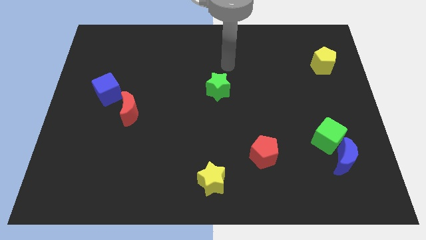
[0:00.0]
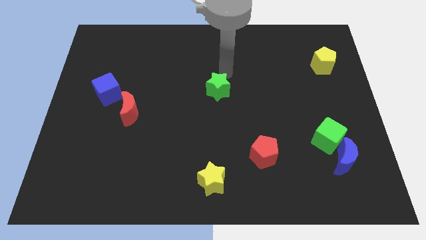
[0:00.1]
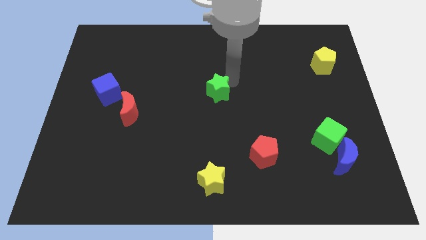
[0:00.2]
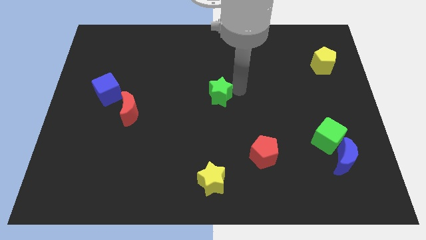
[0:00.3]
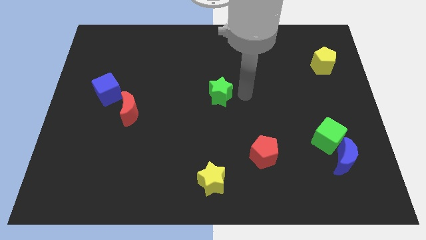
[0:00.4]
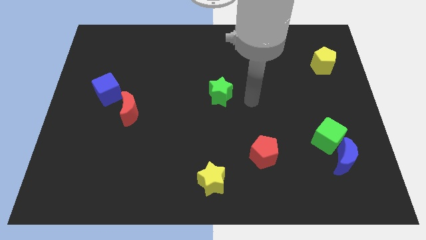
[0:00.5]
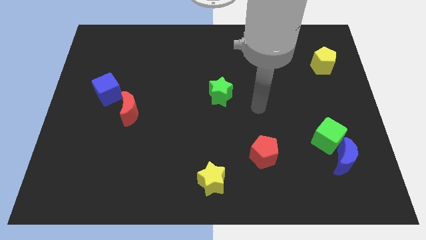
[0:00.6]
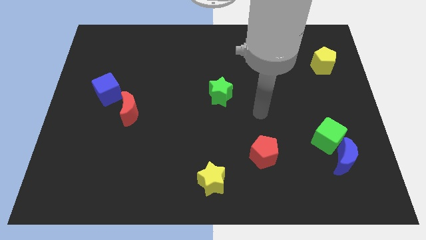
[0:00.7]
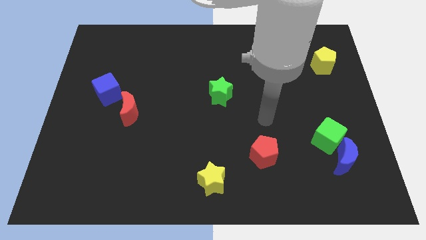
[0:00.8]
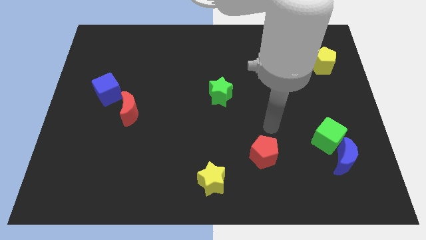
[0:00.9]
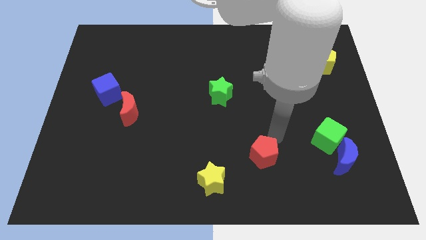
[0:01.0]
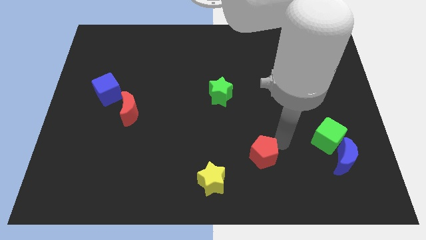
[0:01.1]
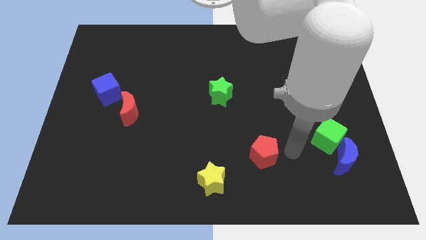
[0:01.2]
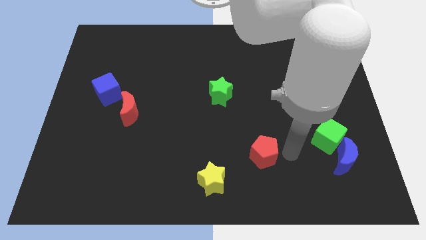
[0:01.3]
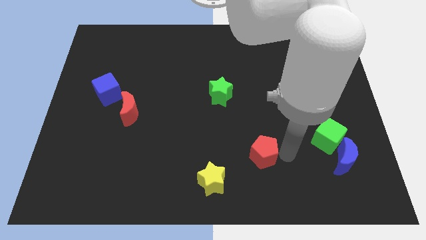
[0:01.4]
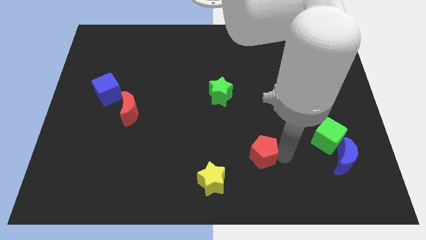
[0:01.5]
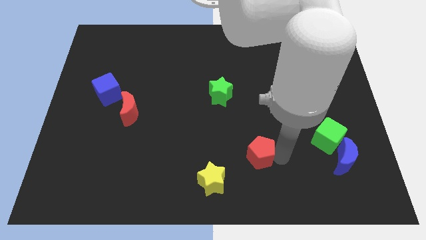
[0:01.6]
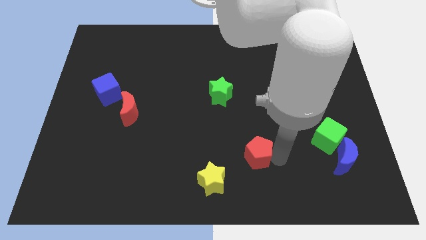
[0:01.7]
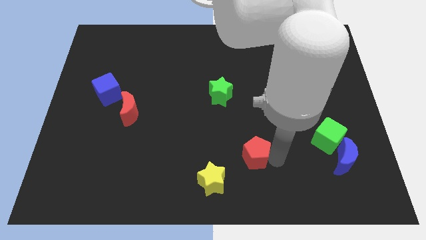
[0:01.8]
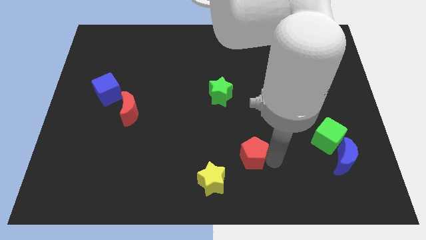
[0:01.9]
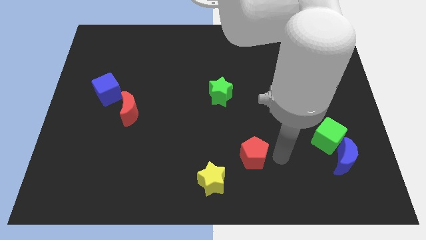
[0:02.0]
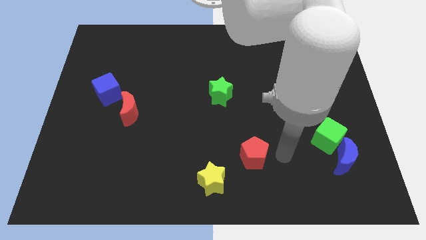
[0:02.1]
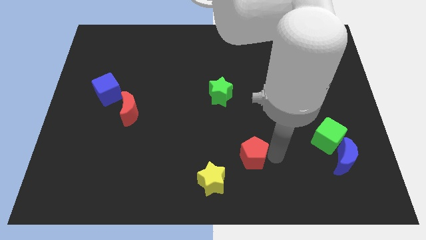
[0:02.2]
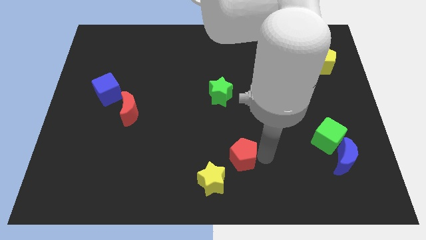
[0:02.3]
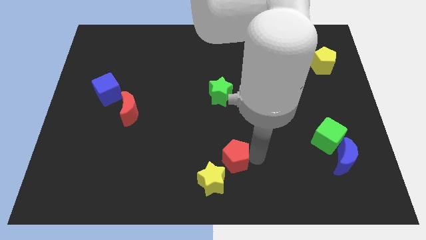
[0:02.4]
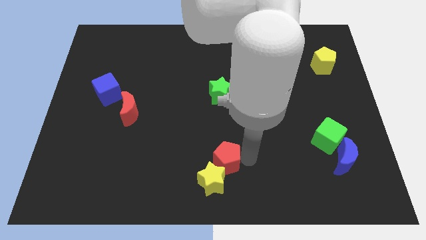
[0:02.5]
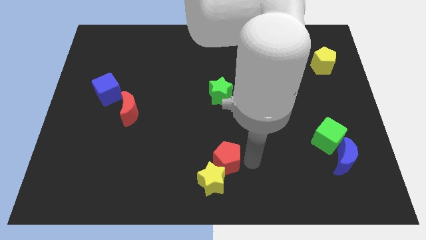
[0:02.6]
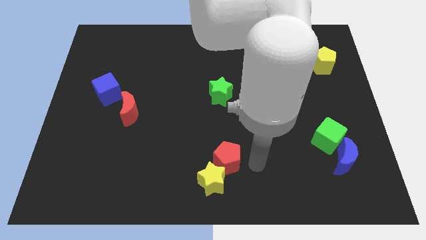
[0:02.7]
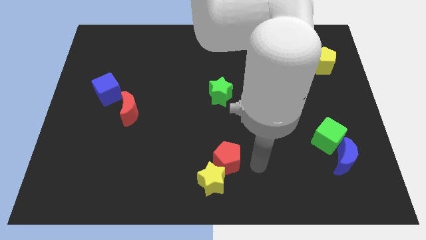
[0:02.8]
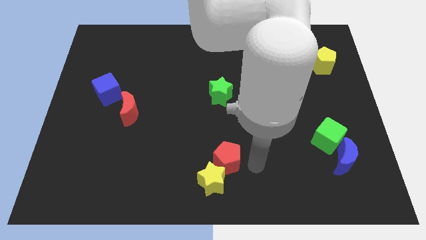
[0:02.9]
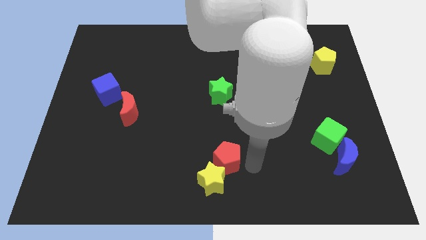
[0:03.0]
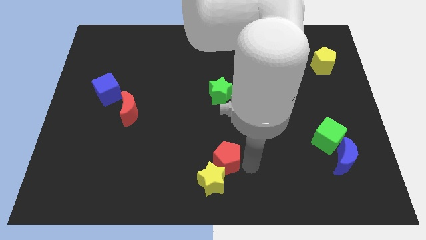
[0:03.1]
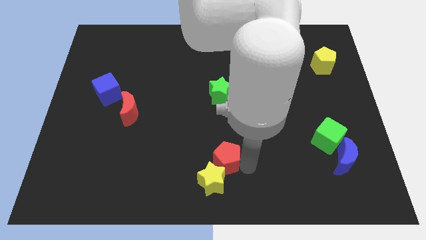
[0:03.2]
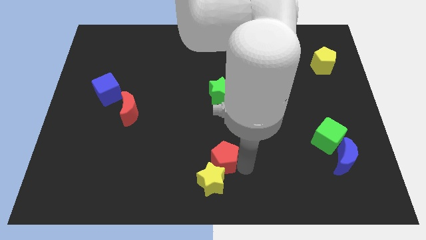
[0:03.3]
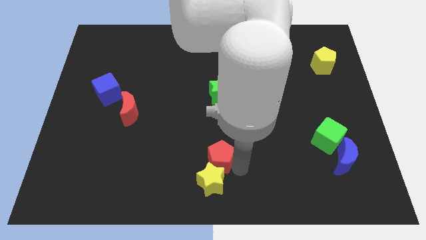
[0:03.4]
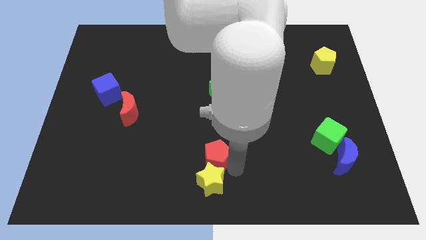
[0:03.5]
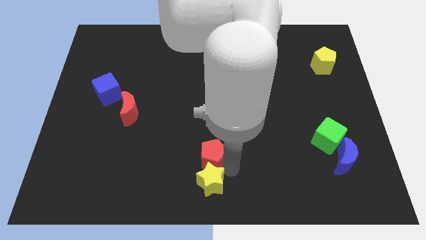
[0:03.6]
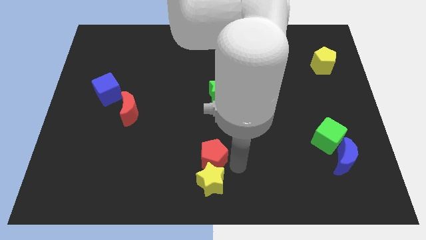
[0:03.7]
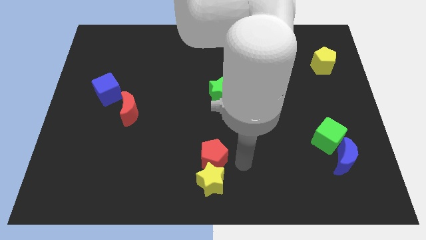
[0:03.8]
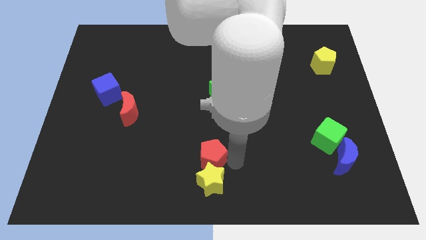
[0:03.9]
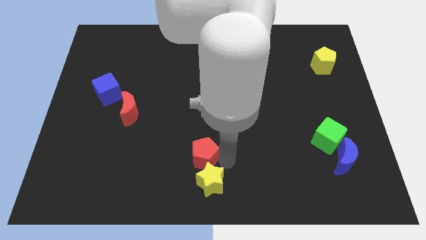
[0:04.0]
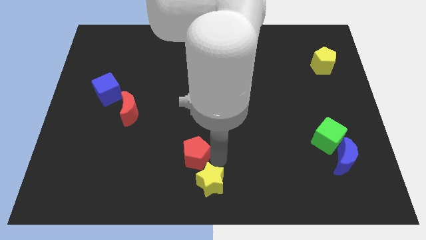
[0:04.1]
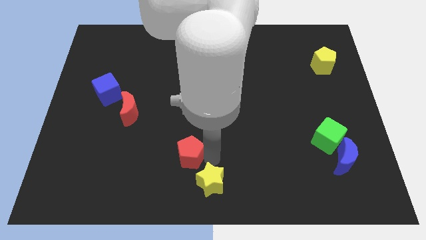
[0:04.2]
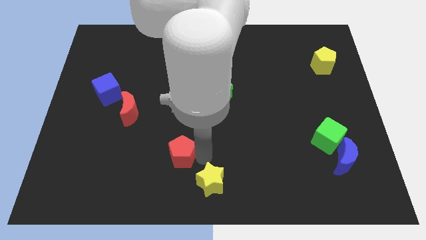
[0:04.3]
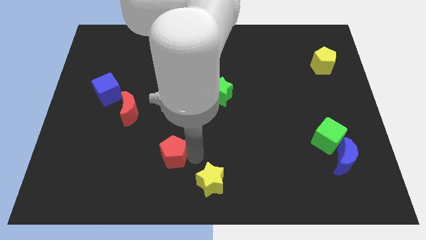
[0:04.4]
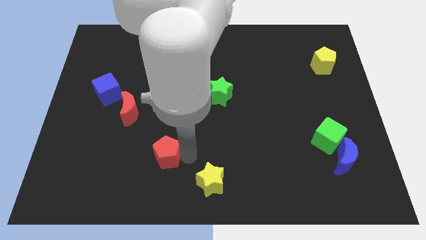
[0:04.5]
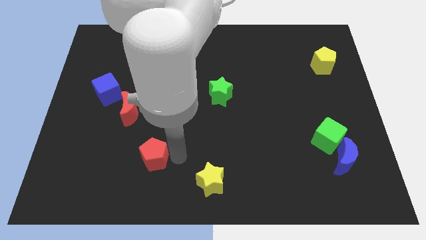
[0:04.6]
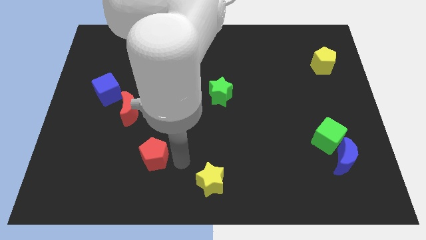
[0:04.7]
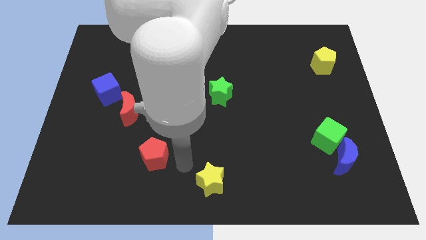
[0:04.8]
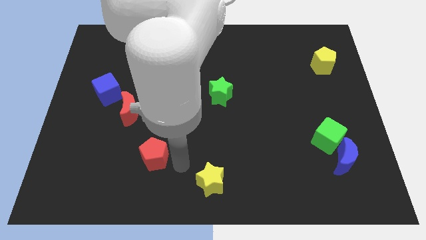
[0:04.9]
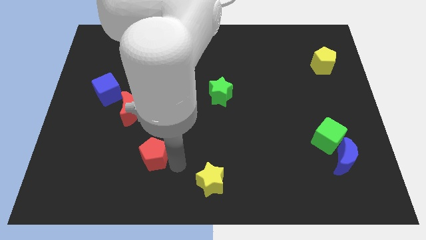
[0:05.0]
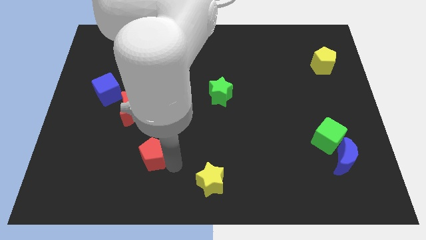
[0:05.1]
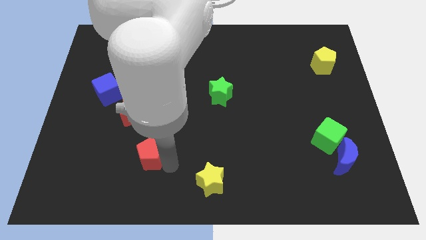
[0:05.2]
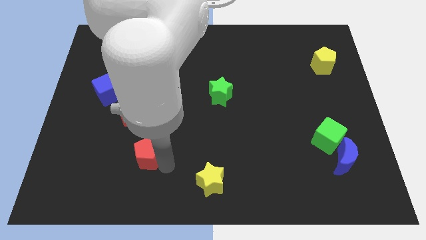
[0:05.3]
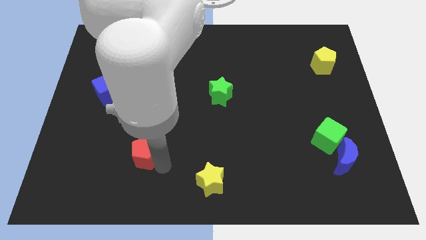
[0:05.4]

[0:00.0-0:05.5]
push the red pentagon below the red moon

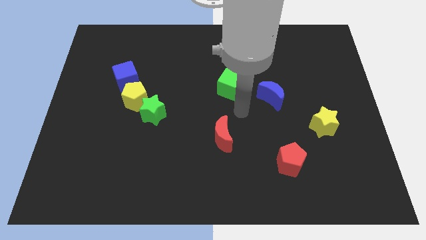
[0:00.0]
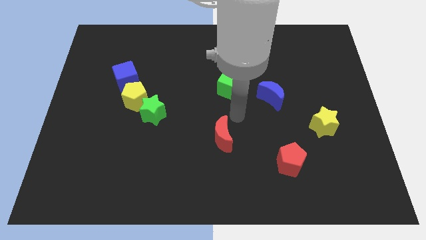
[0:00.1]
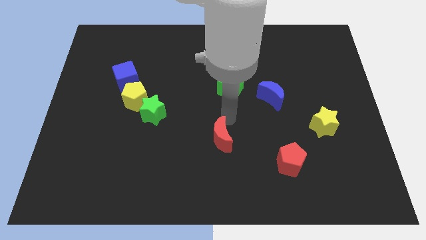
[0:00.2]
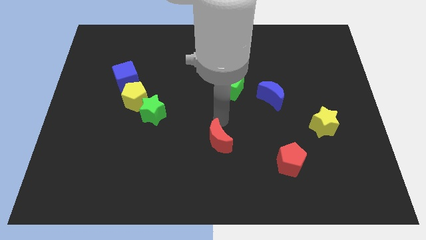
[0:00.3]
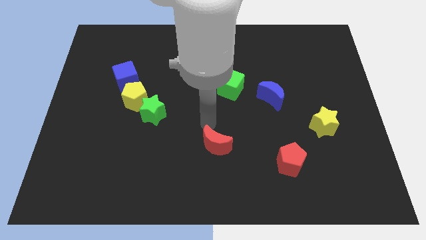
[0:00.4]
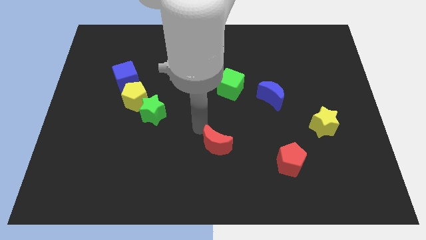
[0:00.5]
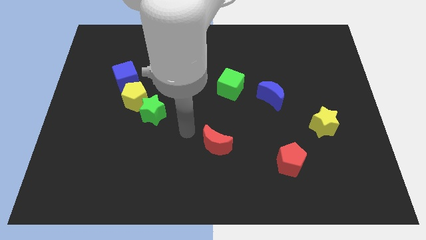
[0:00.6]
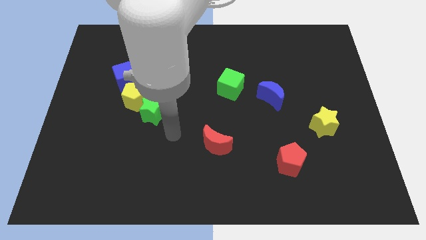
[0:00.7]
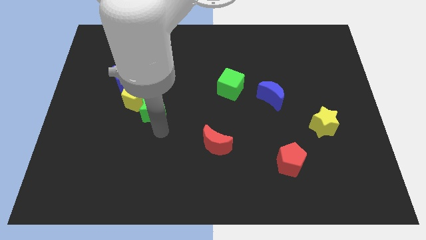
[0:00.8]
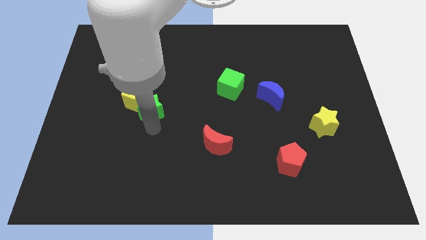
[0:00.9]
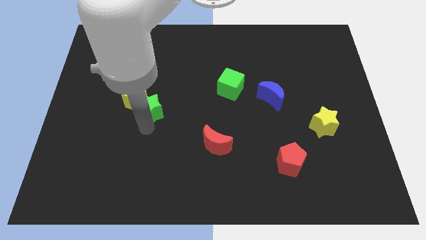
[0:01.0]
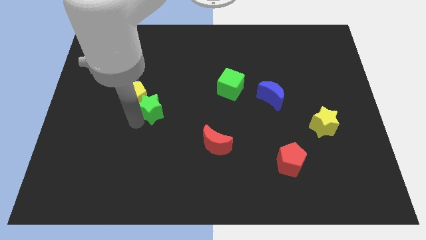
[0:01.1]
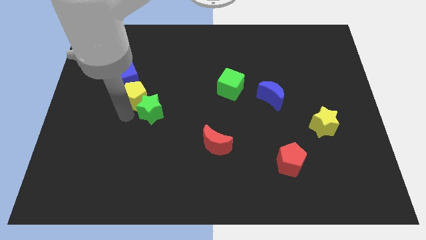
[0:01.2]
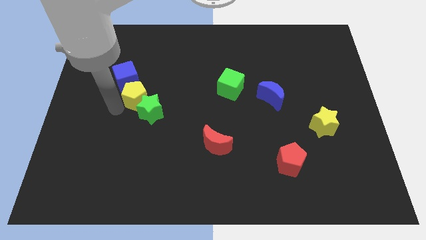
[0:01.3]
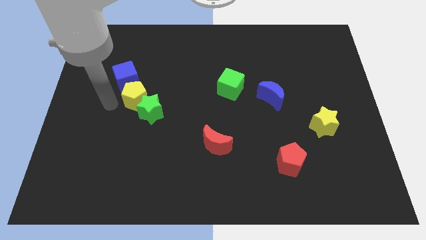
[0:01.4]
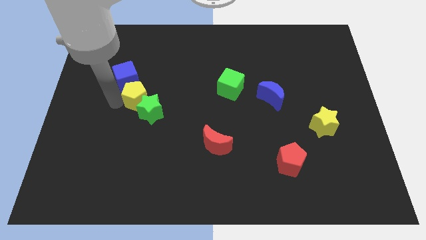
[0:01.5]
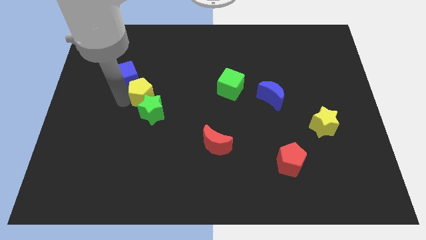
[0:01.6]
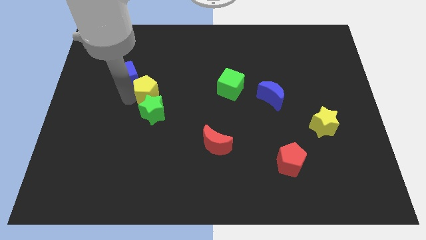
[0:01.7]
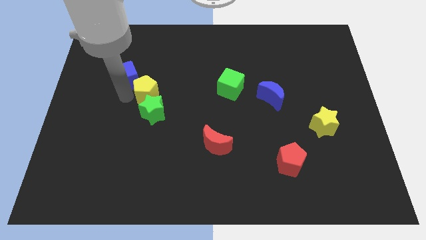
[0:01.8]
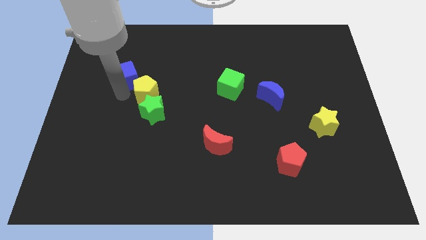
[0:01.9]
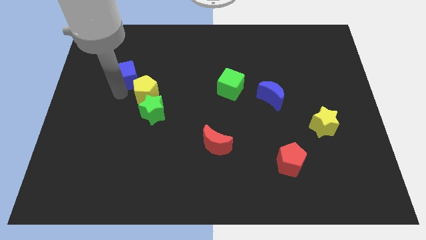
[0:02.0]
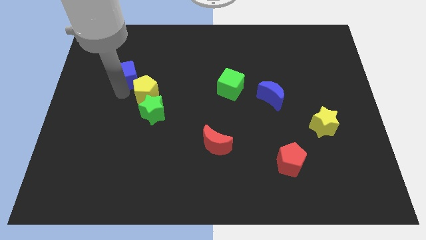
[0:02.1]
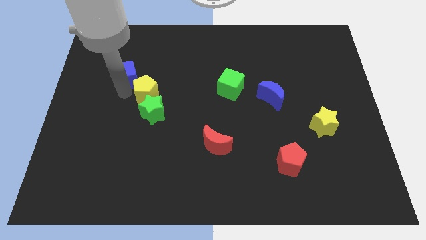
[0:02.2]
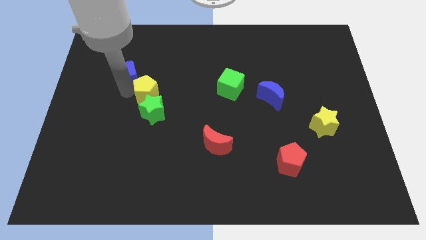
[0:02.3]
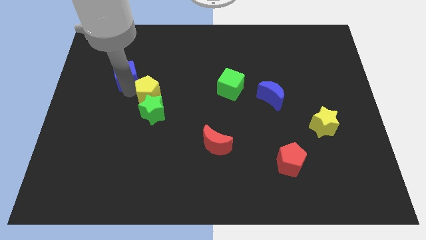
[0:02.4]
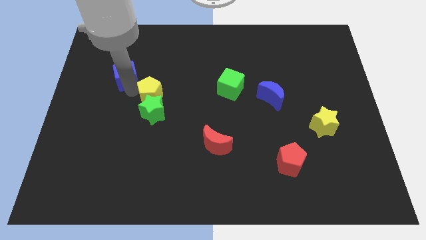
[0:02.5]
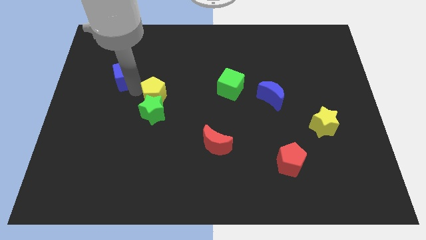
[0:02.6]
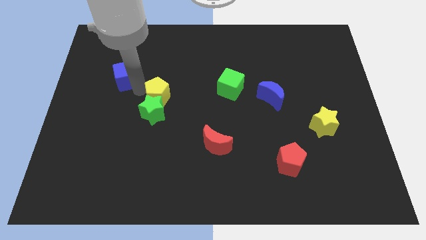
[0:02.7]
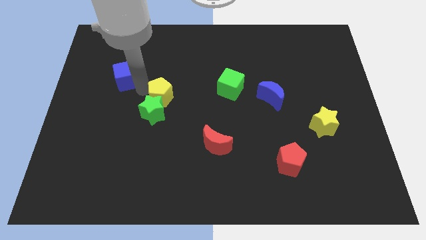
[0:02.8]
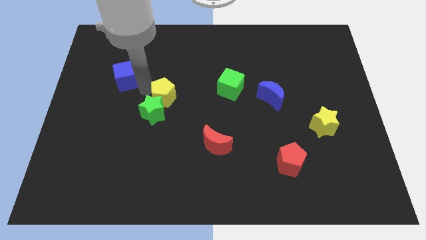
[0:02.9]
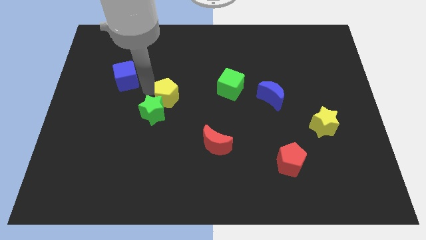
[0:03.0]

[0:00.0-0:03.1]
push the yellow pentagon to the left of the green cube
